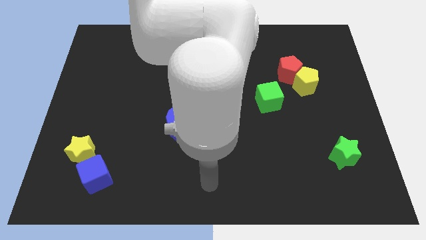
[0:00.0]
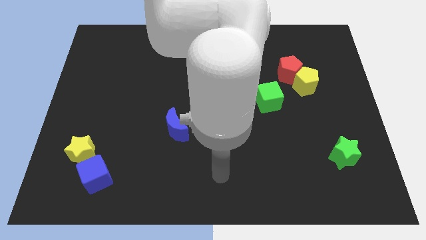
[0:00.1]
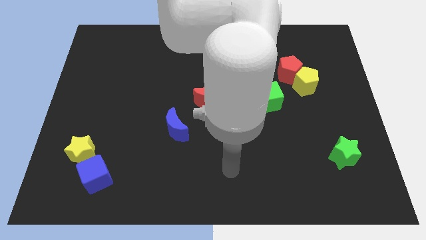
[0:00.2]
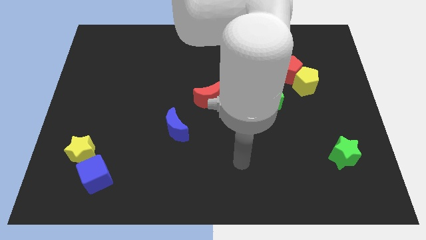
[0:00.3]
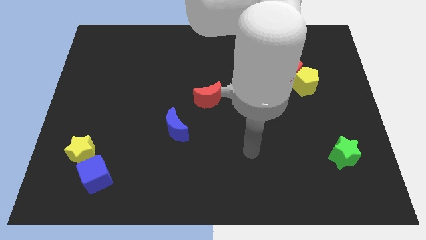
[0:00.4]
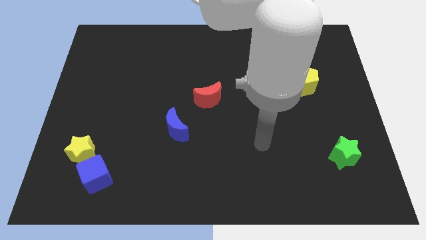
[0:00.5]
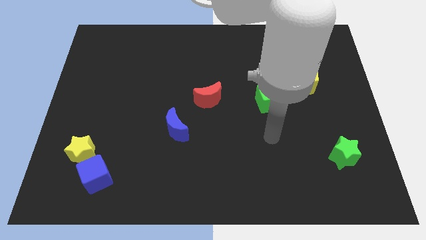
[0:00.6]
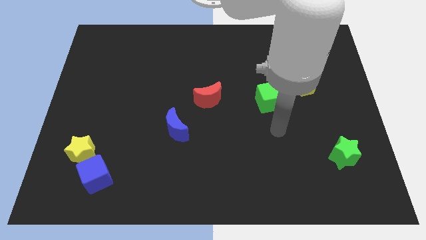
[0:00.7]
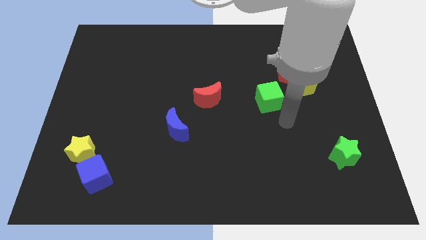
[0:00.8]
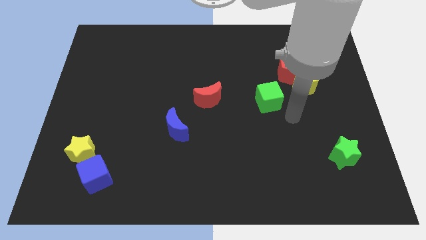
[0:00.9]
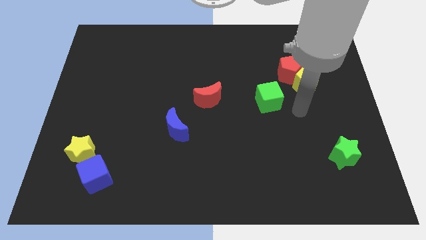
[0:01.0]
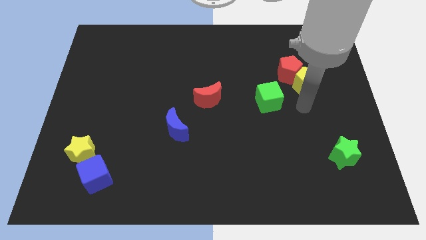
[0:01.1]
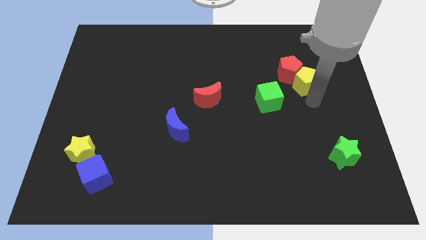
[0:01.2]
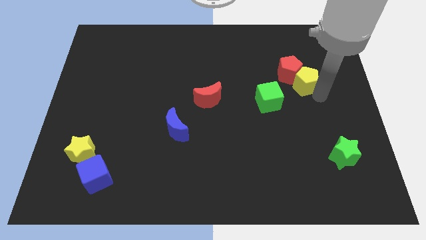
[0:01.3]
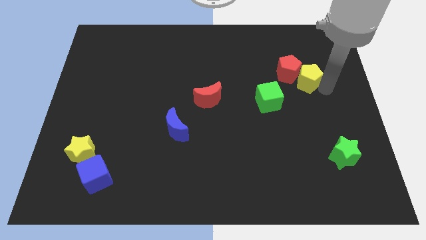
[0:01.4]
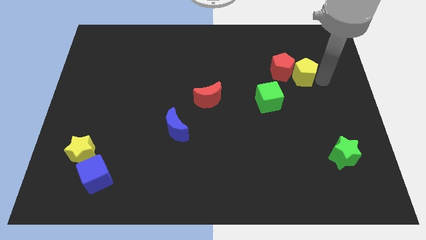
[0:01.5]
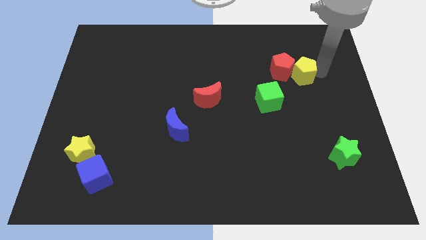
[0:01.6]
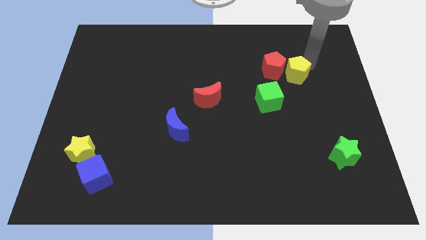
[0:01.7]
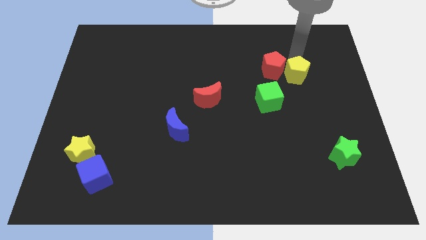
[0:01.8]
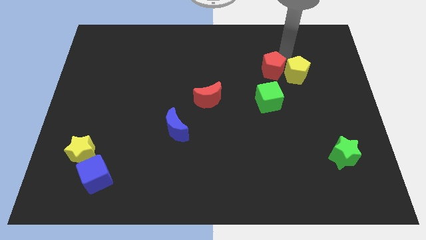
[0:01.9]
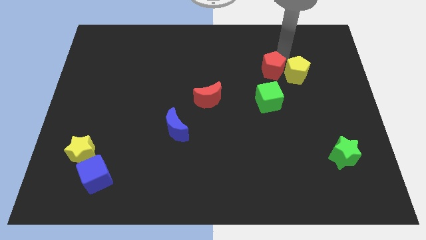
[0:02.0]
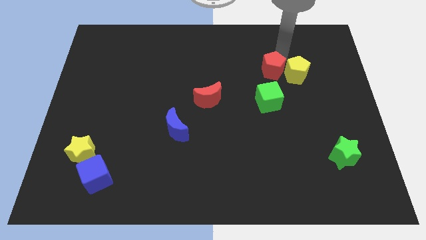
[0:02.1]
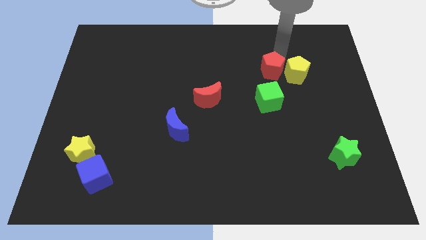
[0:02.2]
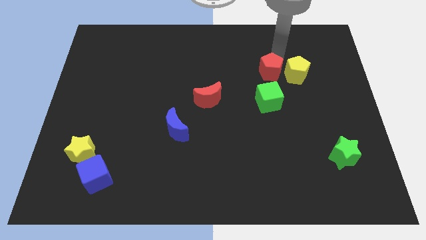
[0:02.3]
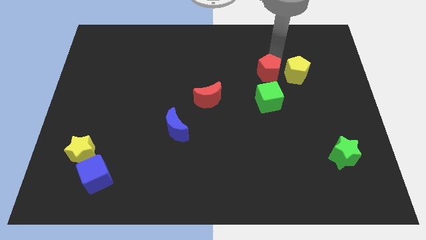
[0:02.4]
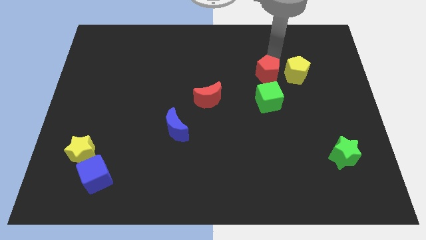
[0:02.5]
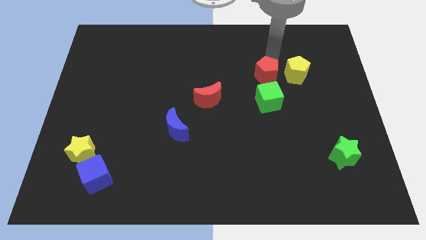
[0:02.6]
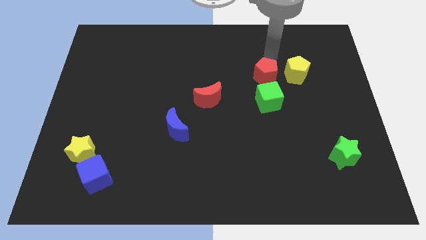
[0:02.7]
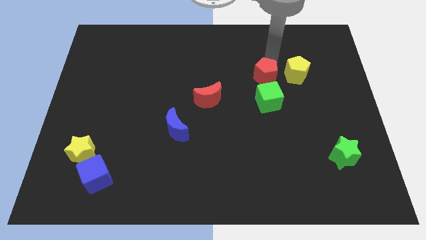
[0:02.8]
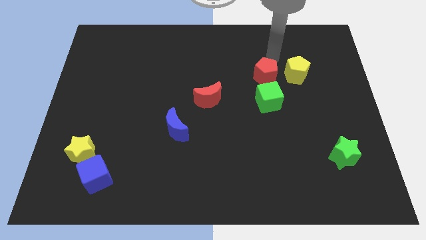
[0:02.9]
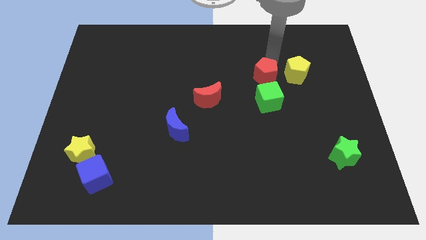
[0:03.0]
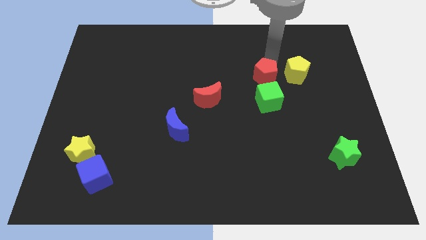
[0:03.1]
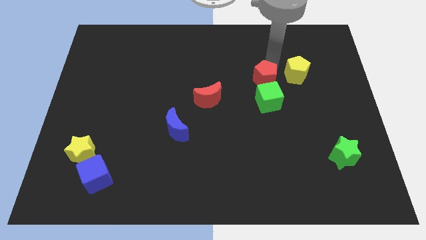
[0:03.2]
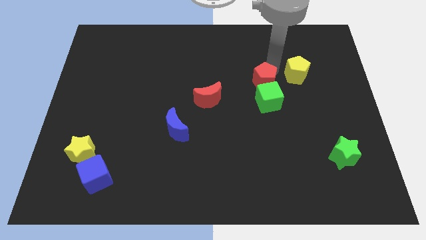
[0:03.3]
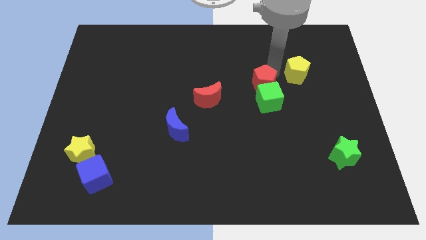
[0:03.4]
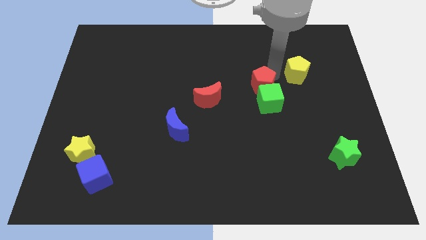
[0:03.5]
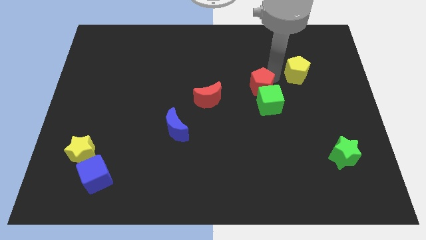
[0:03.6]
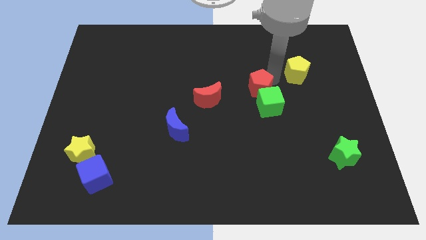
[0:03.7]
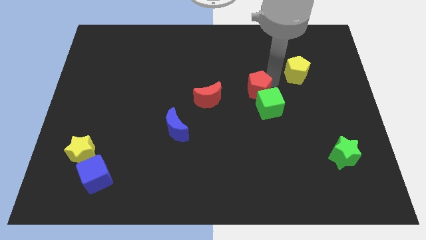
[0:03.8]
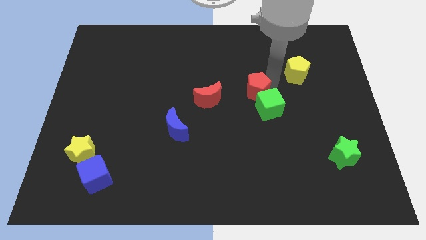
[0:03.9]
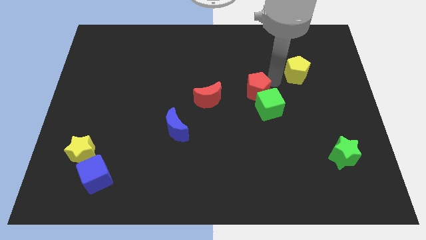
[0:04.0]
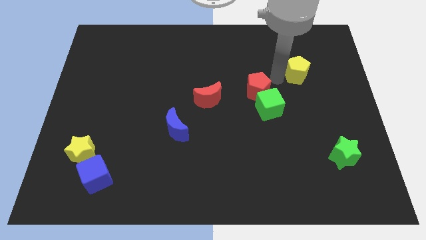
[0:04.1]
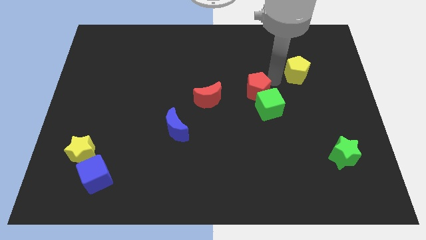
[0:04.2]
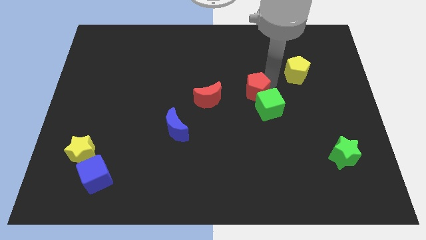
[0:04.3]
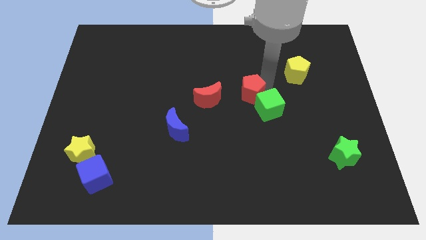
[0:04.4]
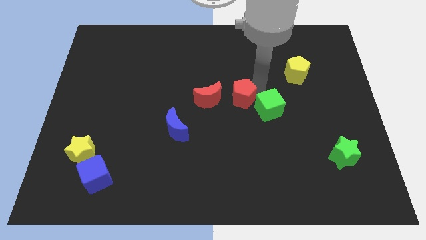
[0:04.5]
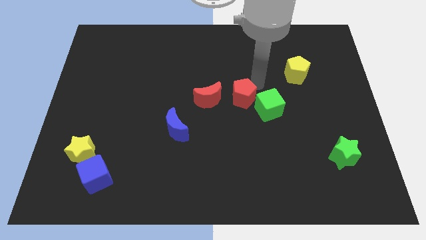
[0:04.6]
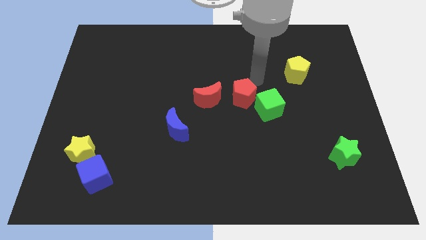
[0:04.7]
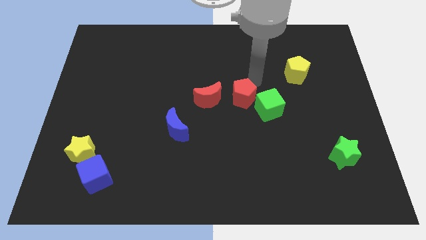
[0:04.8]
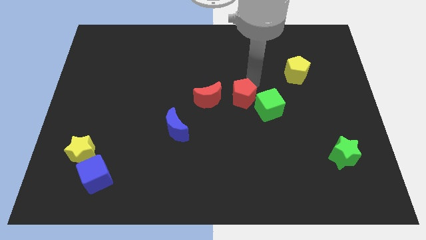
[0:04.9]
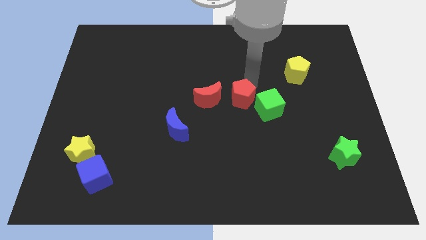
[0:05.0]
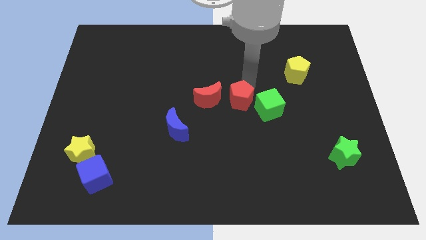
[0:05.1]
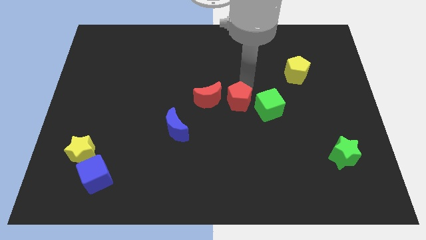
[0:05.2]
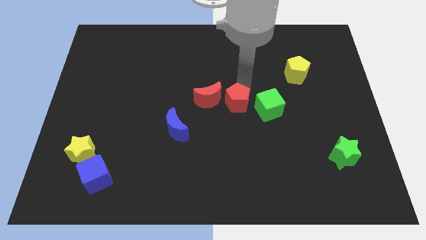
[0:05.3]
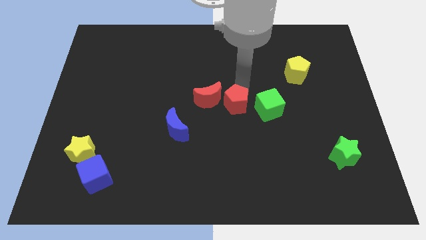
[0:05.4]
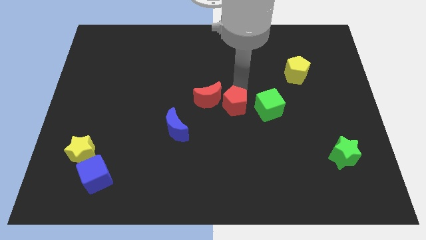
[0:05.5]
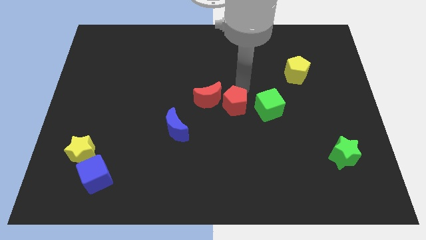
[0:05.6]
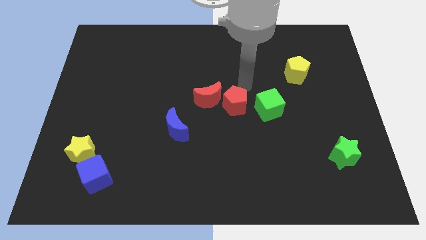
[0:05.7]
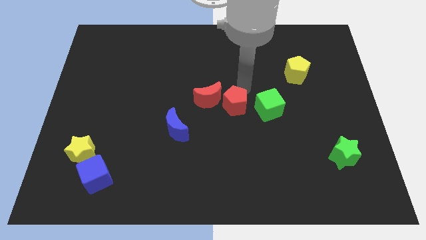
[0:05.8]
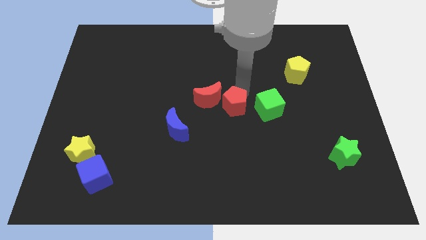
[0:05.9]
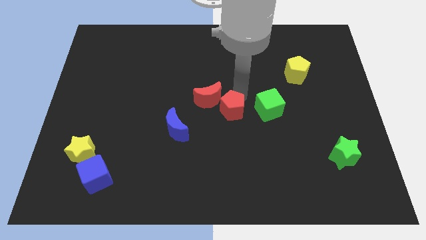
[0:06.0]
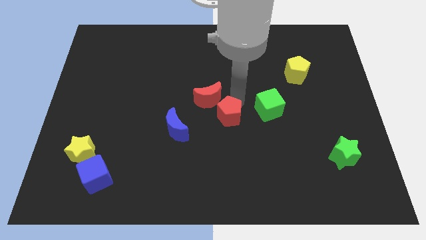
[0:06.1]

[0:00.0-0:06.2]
push the red pentagon to the right side of the blue moon

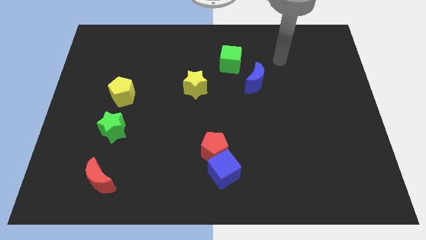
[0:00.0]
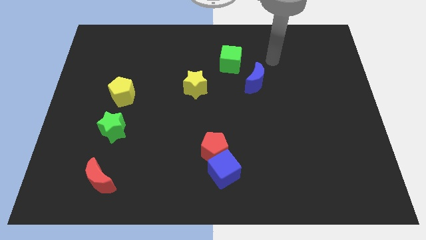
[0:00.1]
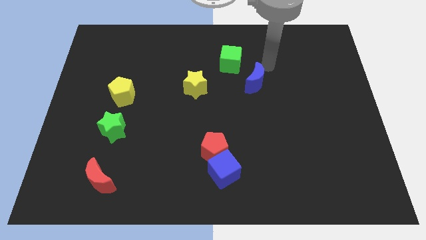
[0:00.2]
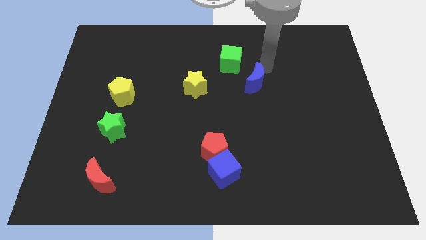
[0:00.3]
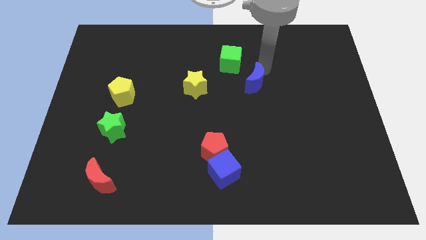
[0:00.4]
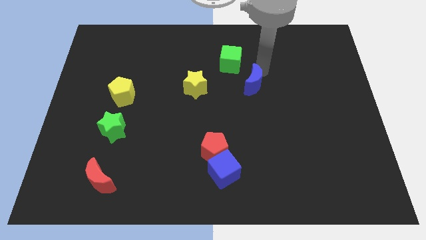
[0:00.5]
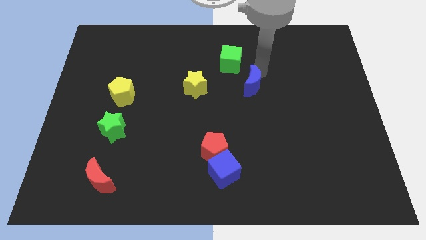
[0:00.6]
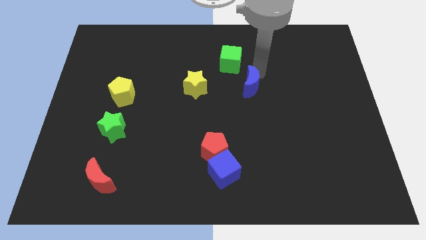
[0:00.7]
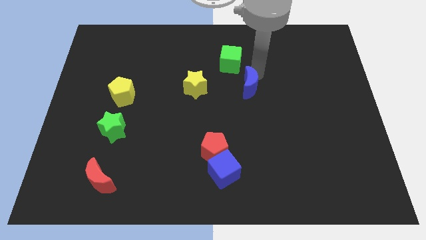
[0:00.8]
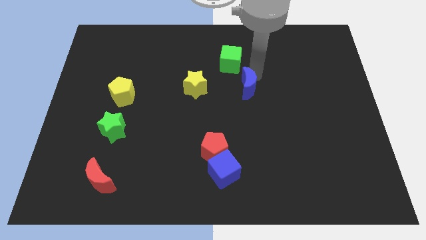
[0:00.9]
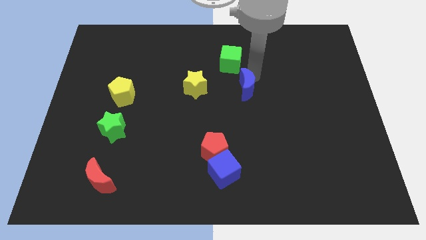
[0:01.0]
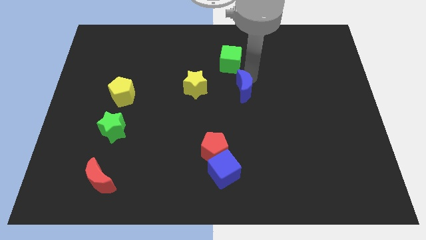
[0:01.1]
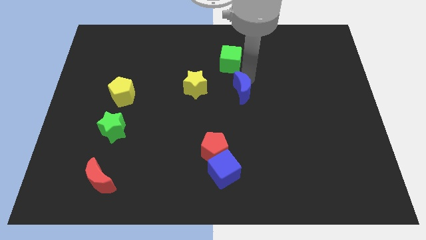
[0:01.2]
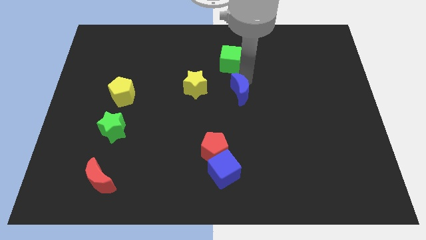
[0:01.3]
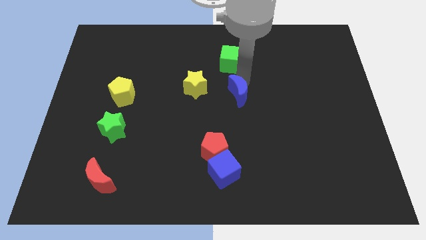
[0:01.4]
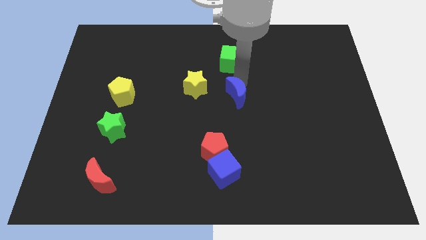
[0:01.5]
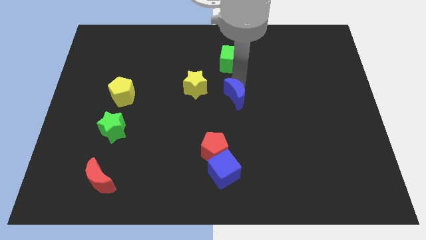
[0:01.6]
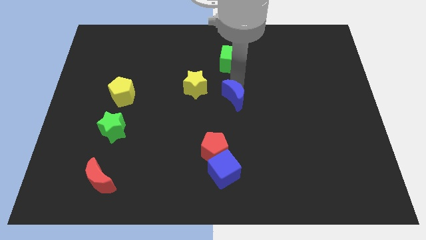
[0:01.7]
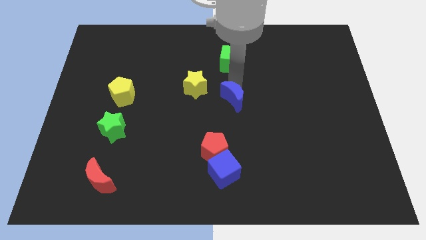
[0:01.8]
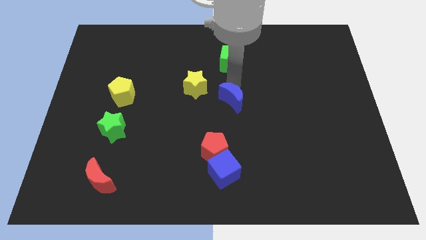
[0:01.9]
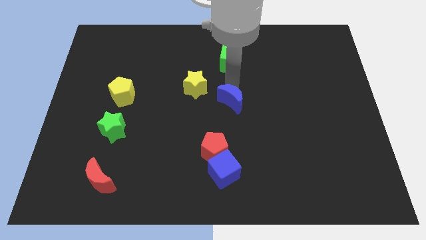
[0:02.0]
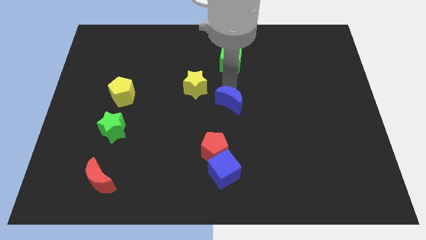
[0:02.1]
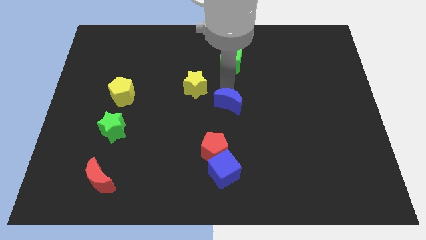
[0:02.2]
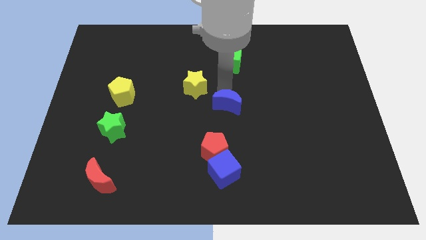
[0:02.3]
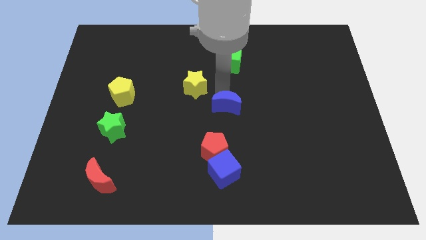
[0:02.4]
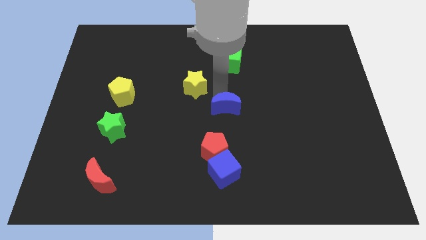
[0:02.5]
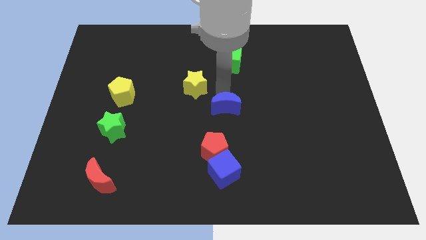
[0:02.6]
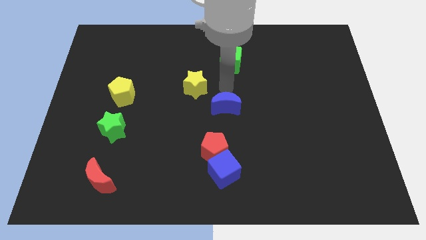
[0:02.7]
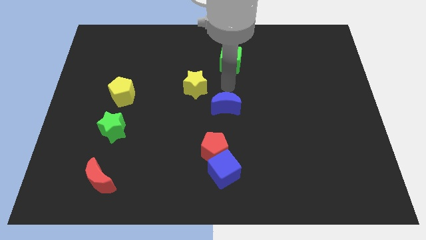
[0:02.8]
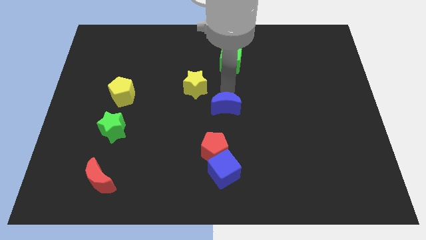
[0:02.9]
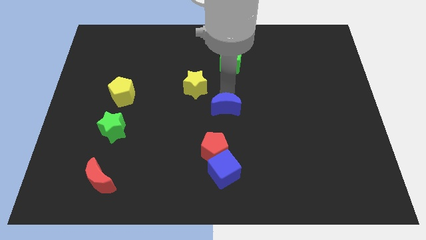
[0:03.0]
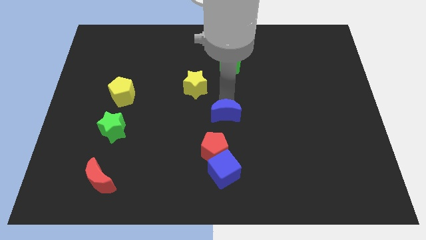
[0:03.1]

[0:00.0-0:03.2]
put the blue moon to the top of the blue cube
